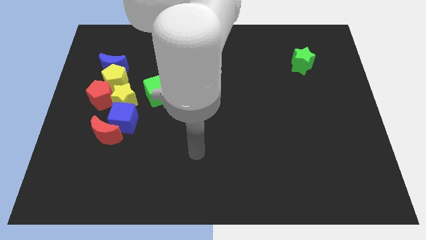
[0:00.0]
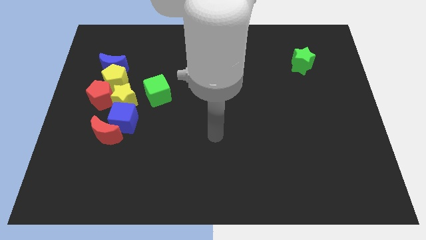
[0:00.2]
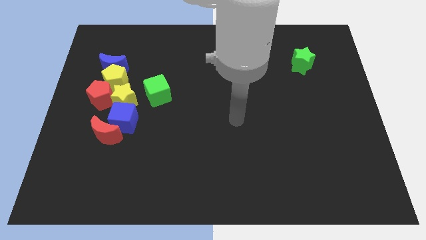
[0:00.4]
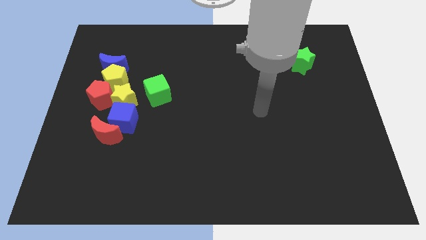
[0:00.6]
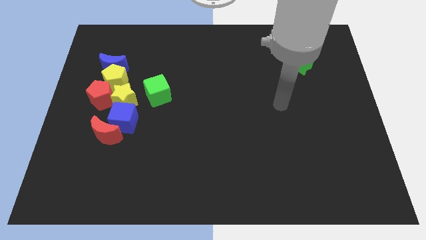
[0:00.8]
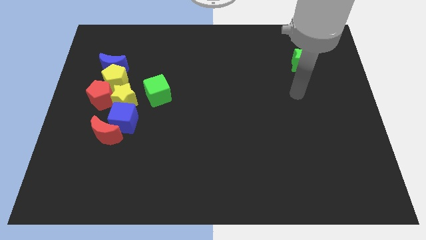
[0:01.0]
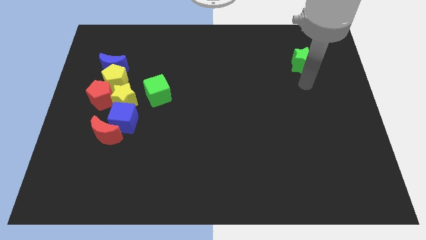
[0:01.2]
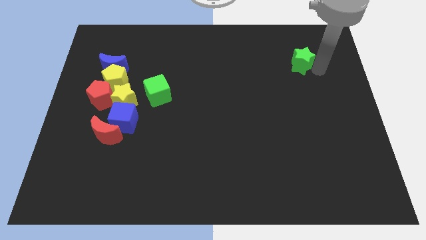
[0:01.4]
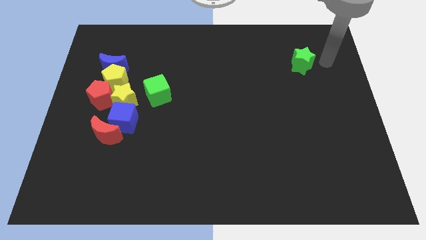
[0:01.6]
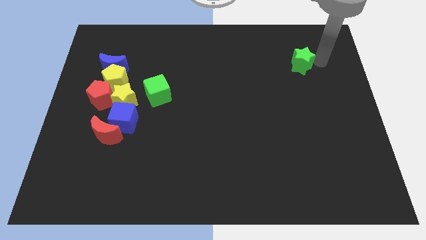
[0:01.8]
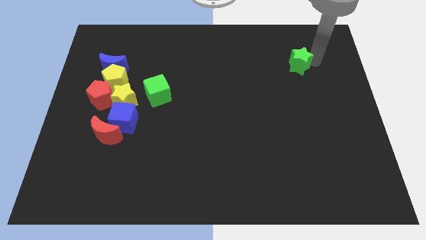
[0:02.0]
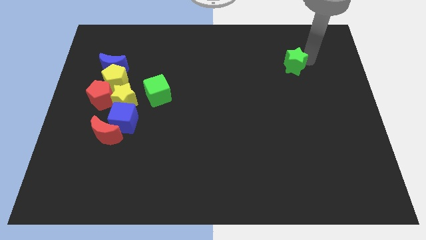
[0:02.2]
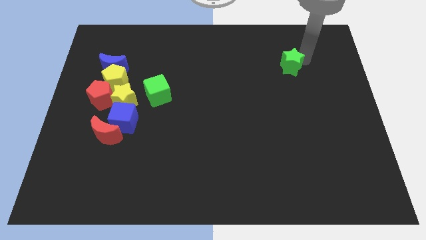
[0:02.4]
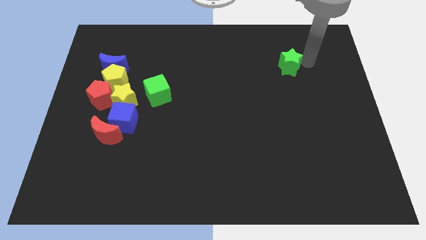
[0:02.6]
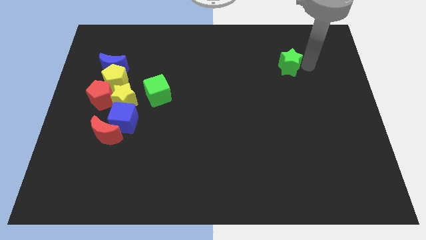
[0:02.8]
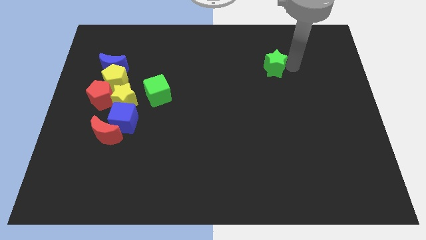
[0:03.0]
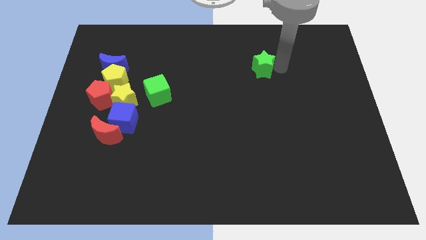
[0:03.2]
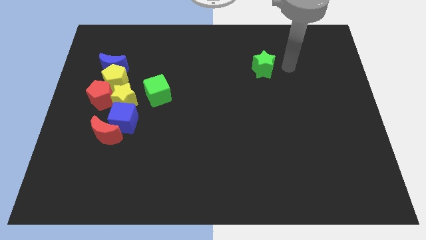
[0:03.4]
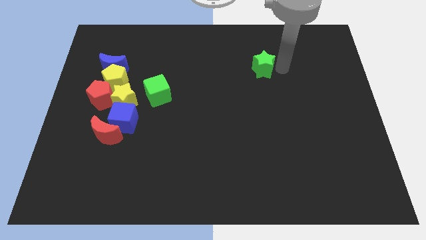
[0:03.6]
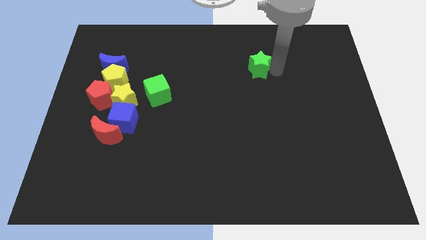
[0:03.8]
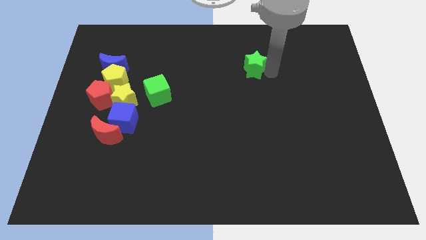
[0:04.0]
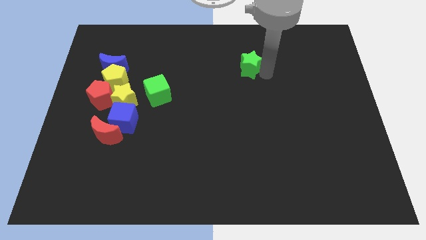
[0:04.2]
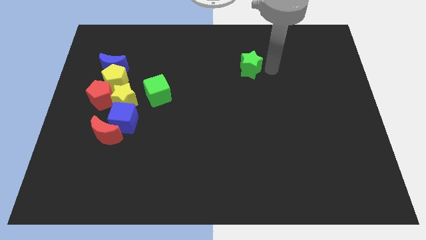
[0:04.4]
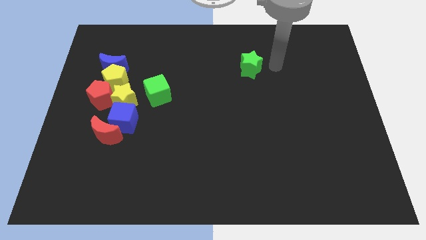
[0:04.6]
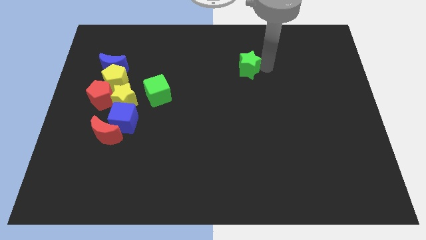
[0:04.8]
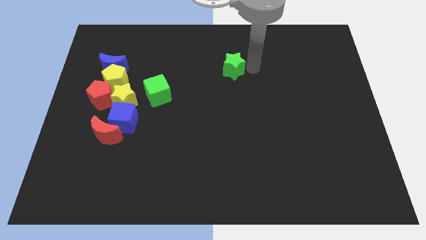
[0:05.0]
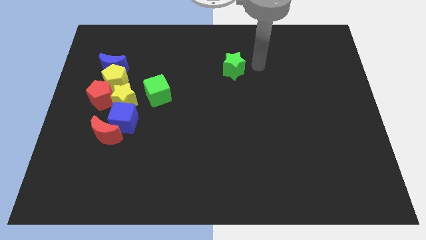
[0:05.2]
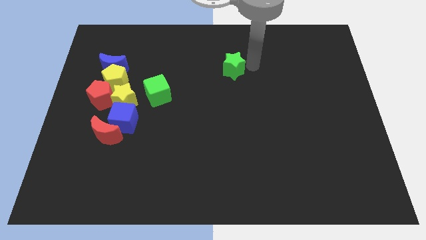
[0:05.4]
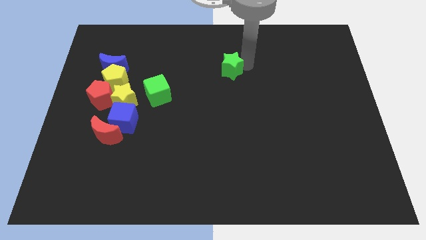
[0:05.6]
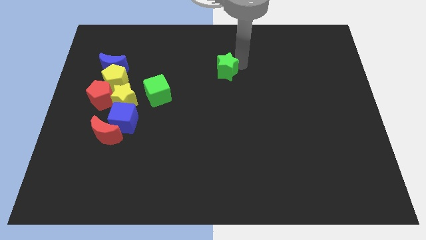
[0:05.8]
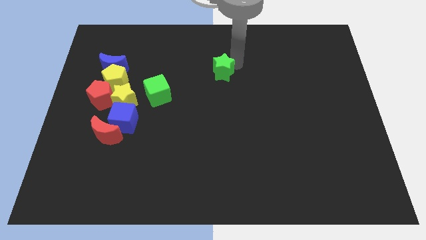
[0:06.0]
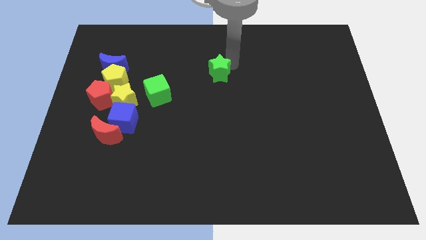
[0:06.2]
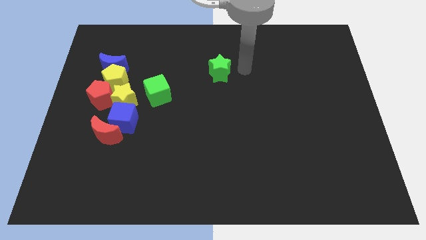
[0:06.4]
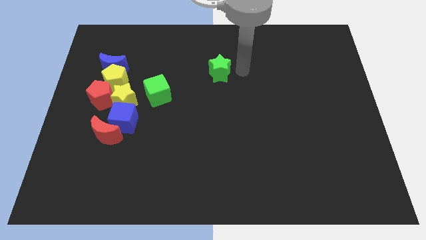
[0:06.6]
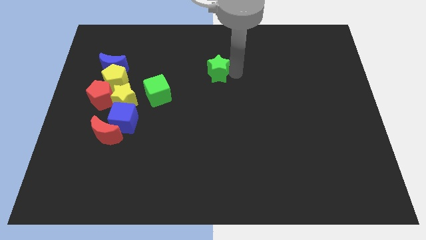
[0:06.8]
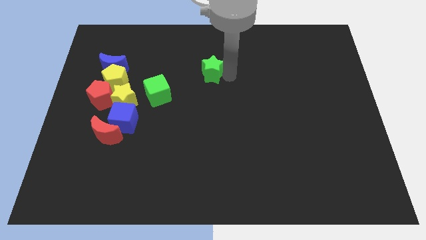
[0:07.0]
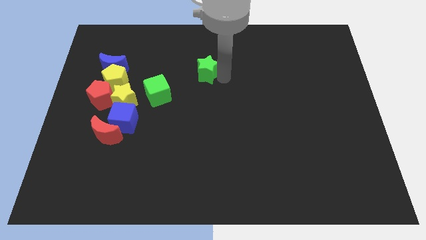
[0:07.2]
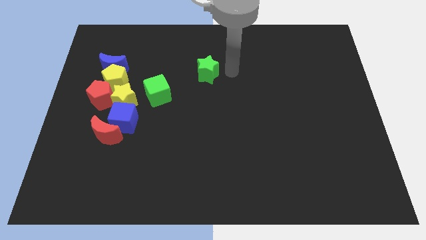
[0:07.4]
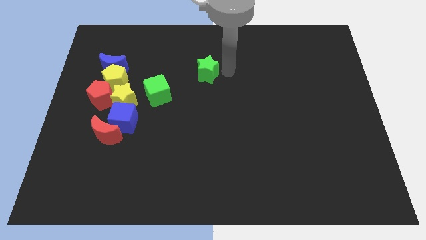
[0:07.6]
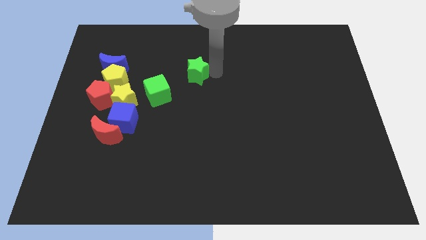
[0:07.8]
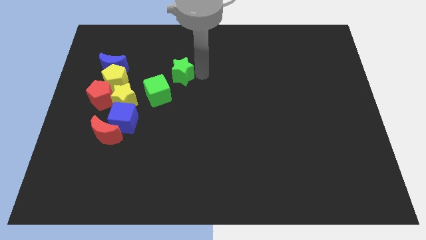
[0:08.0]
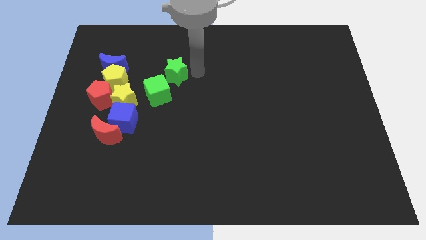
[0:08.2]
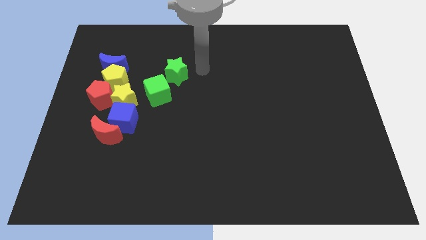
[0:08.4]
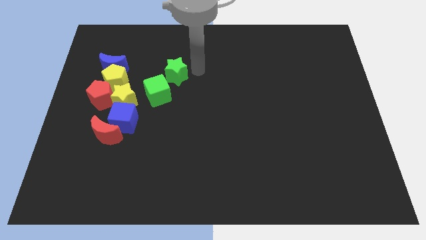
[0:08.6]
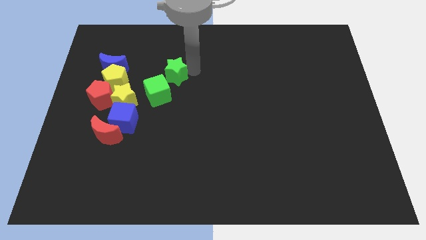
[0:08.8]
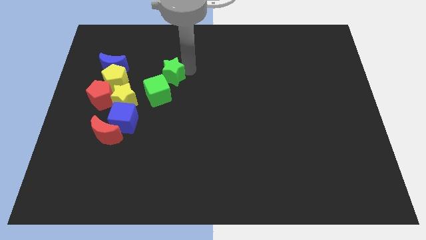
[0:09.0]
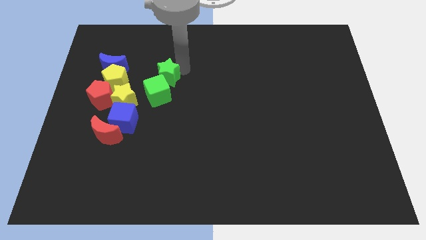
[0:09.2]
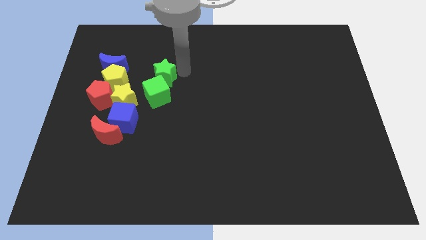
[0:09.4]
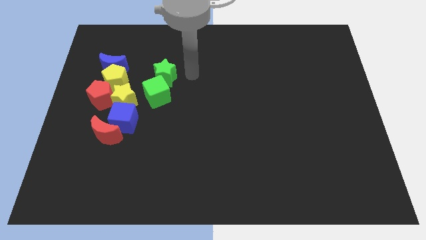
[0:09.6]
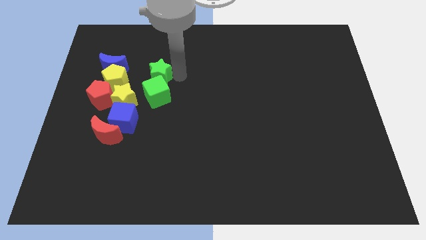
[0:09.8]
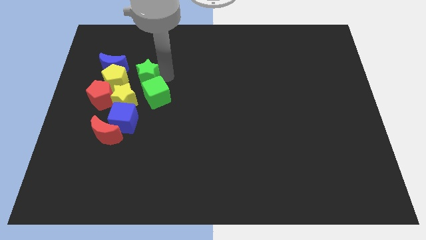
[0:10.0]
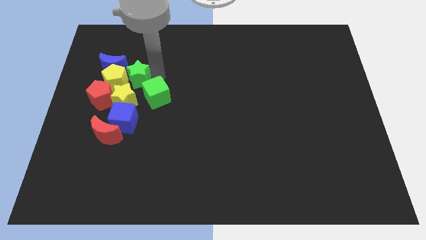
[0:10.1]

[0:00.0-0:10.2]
move the green star close to the yellow pentagon

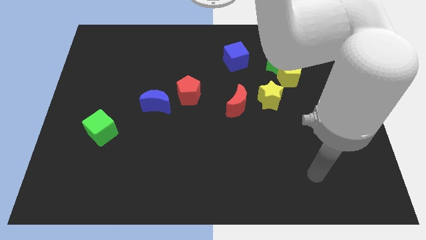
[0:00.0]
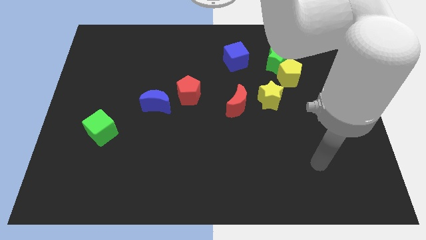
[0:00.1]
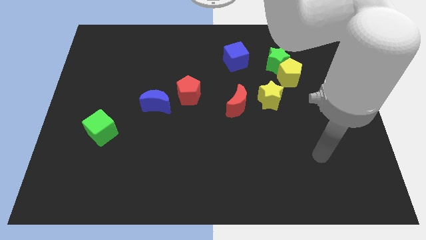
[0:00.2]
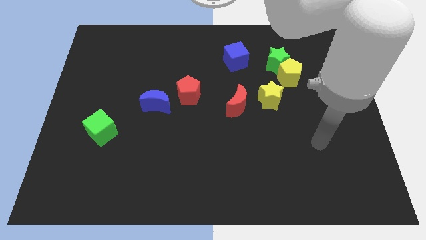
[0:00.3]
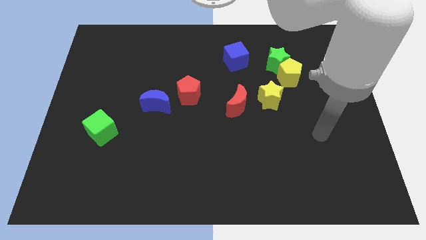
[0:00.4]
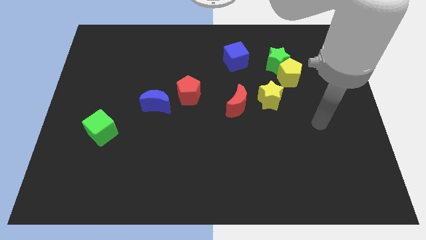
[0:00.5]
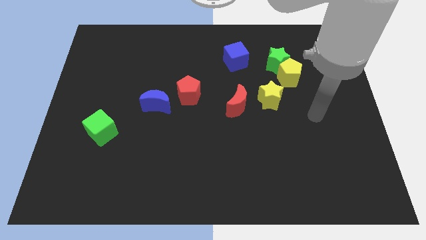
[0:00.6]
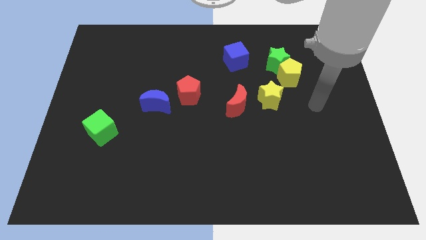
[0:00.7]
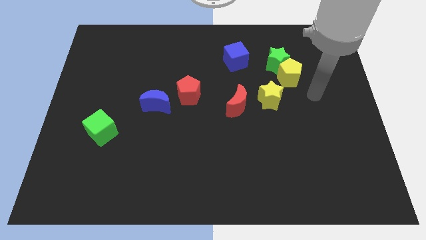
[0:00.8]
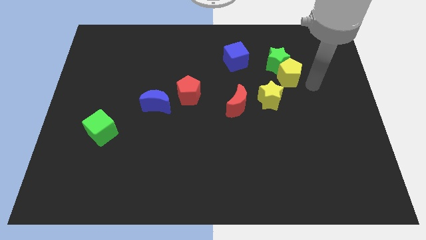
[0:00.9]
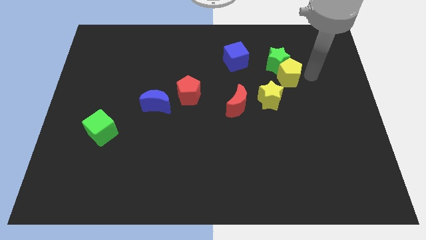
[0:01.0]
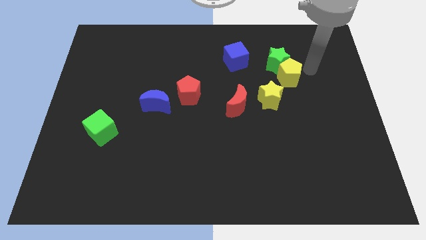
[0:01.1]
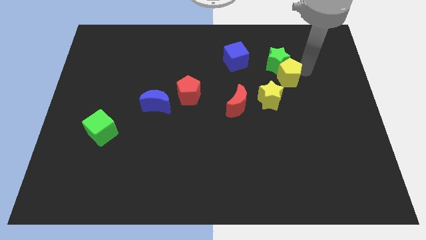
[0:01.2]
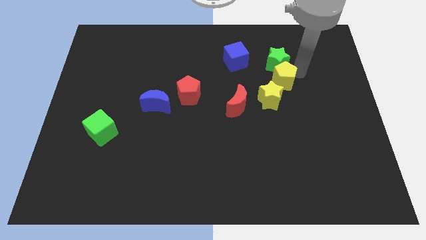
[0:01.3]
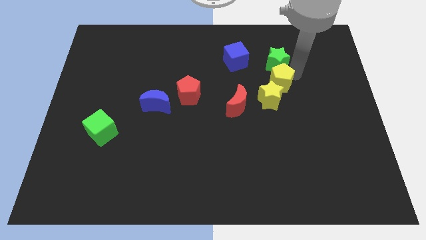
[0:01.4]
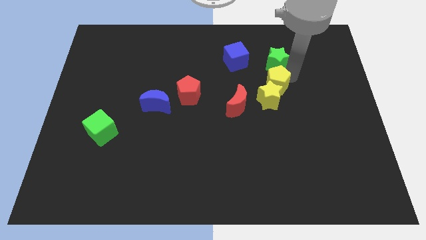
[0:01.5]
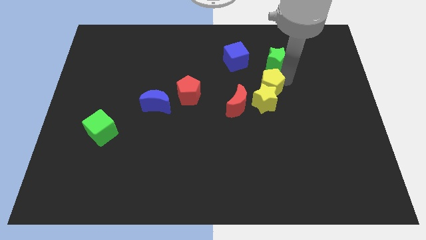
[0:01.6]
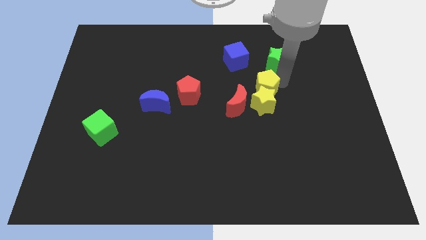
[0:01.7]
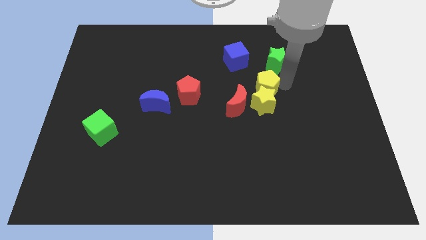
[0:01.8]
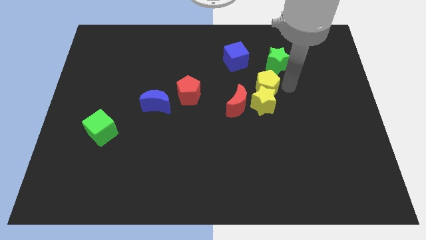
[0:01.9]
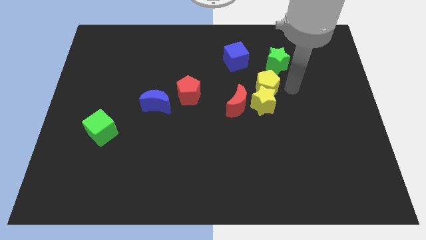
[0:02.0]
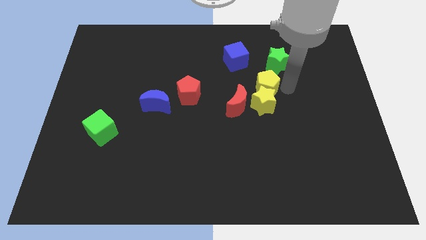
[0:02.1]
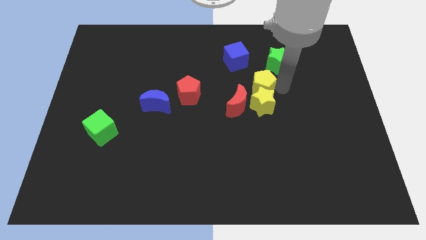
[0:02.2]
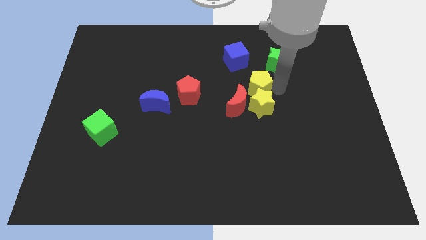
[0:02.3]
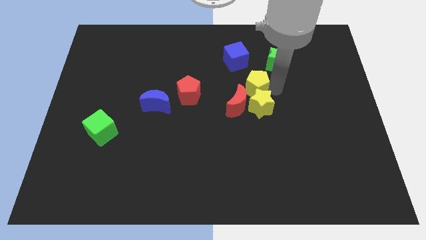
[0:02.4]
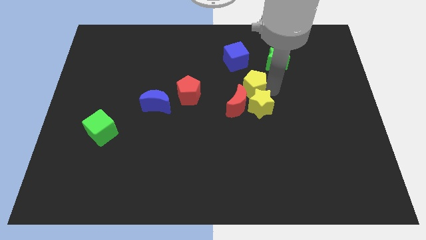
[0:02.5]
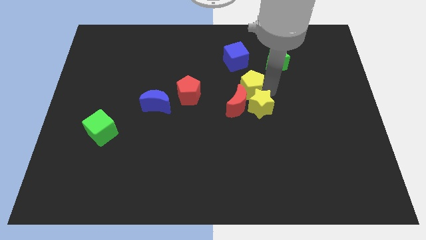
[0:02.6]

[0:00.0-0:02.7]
move the yellow pentagon close to the red moon
